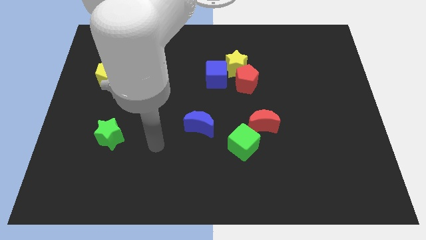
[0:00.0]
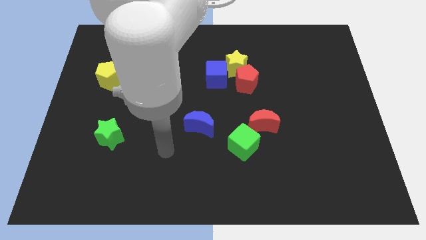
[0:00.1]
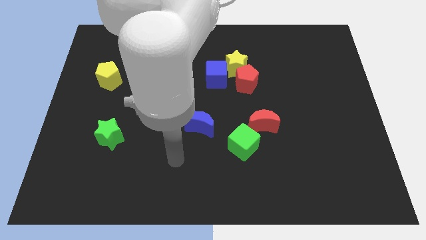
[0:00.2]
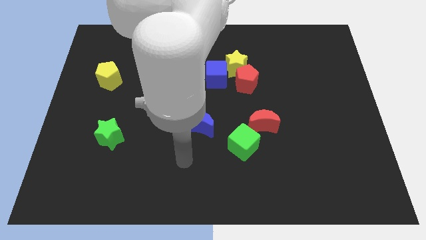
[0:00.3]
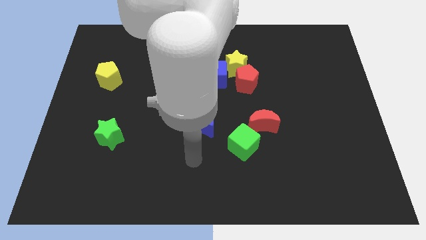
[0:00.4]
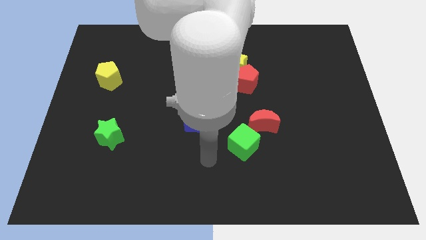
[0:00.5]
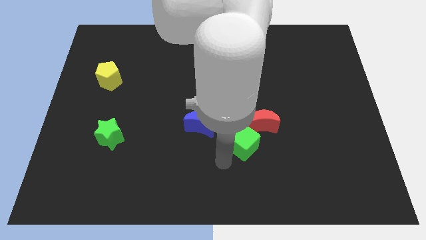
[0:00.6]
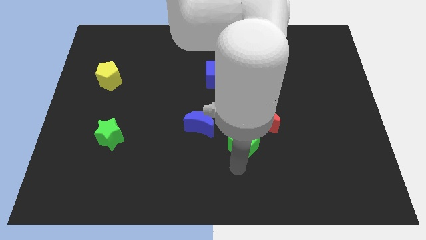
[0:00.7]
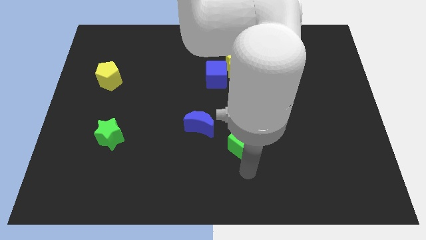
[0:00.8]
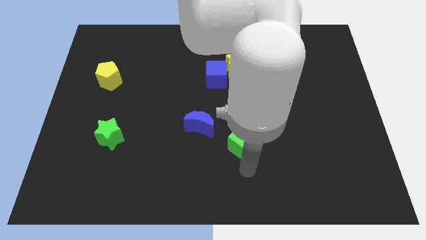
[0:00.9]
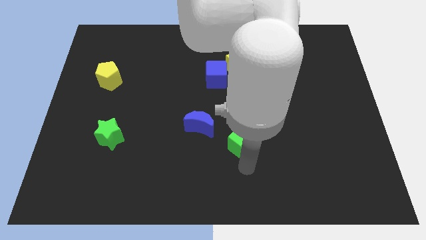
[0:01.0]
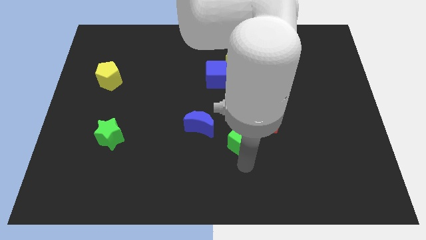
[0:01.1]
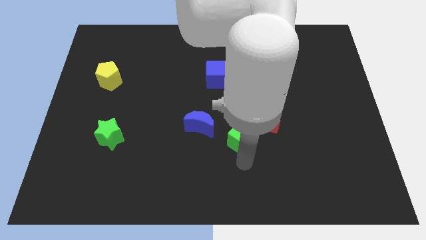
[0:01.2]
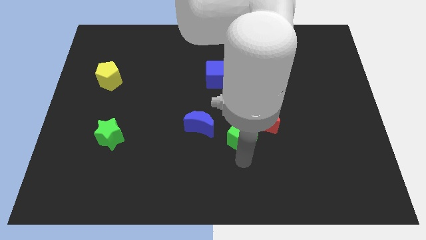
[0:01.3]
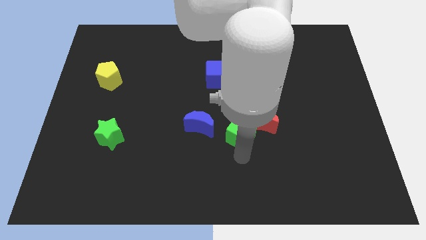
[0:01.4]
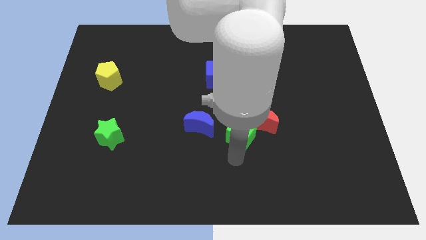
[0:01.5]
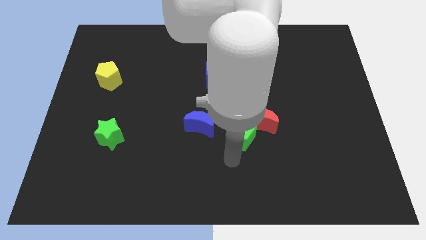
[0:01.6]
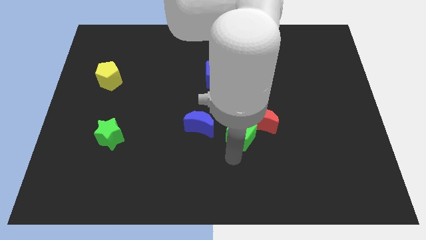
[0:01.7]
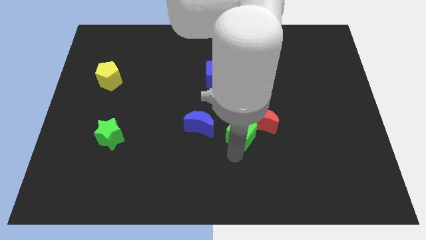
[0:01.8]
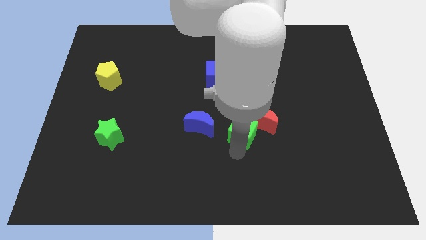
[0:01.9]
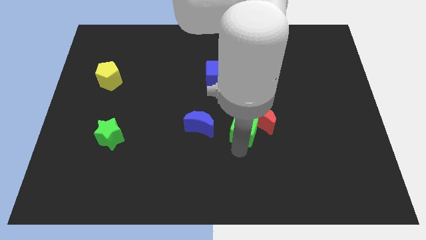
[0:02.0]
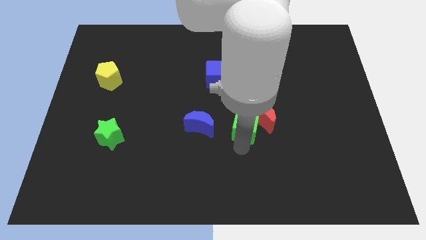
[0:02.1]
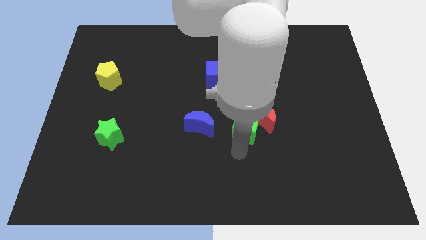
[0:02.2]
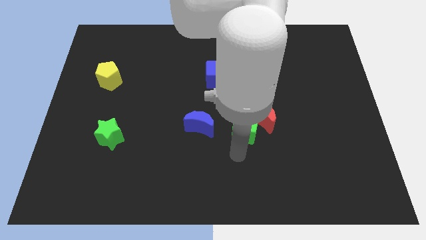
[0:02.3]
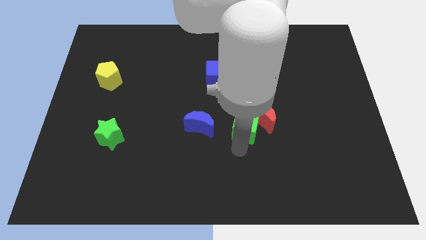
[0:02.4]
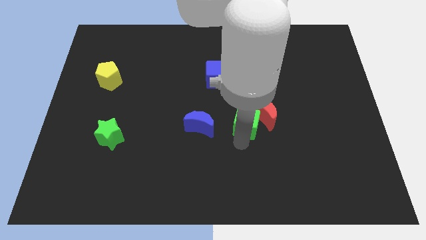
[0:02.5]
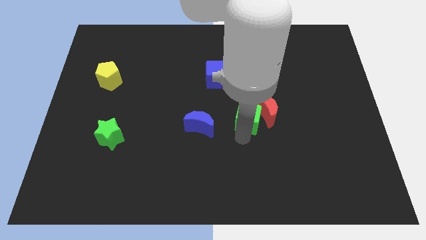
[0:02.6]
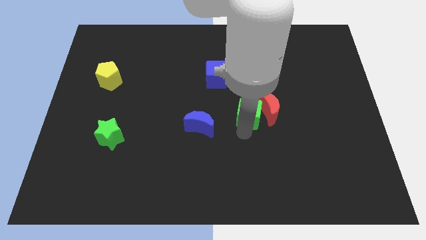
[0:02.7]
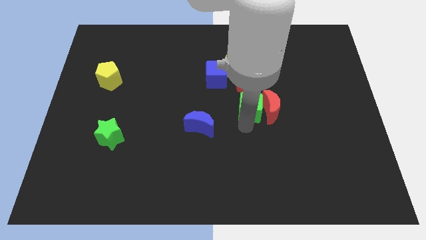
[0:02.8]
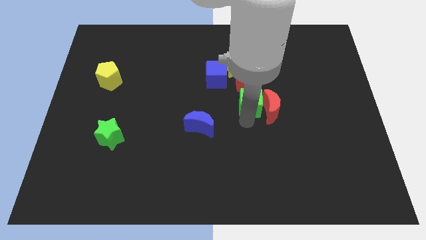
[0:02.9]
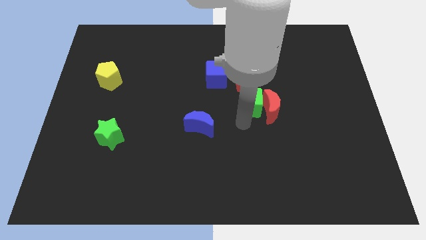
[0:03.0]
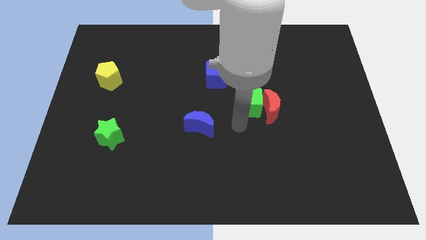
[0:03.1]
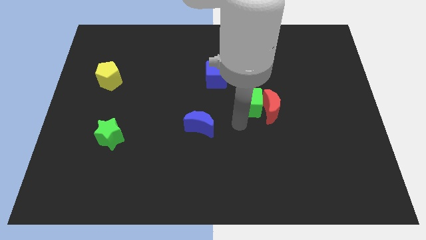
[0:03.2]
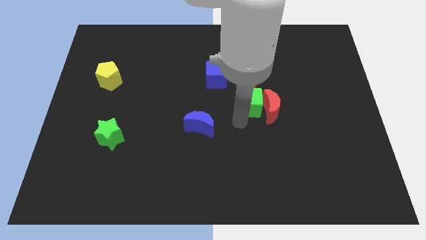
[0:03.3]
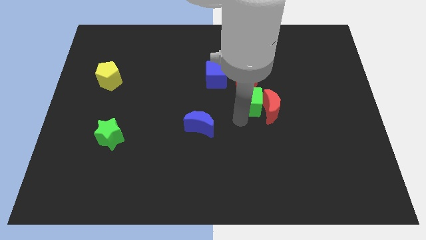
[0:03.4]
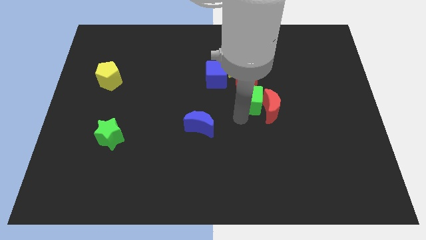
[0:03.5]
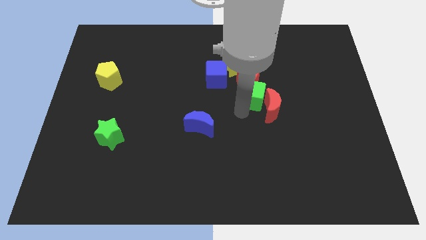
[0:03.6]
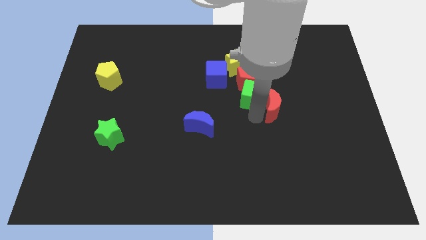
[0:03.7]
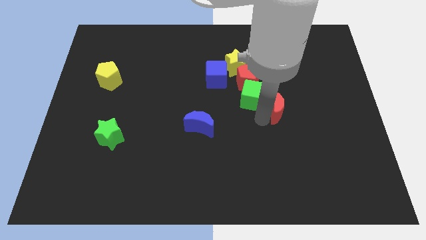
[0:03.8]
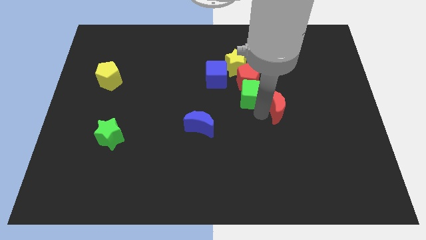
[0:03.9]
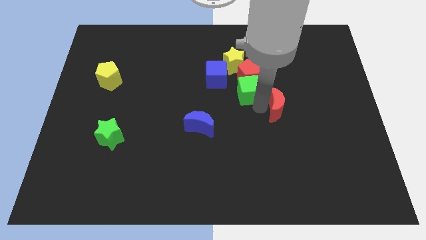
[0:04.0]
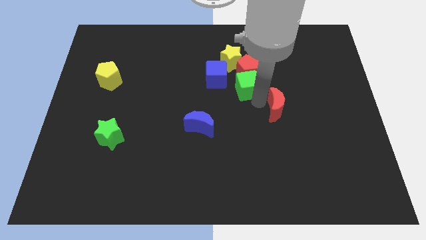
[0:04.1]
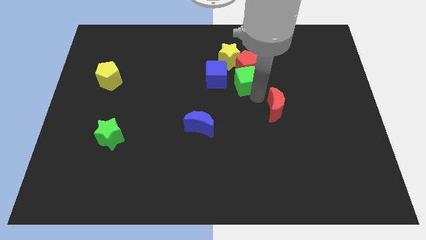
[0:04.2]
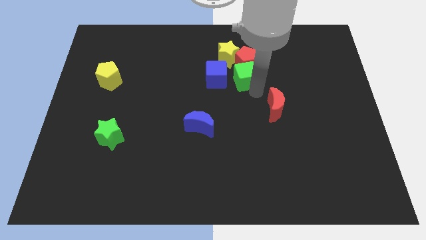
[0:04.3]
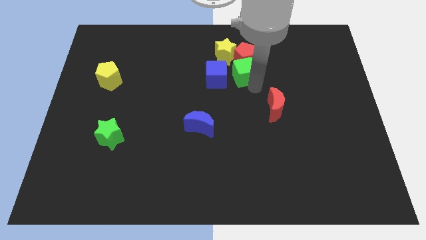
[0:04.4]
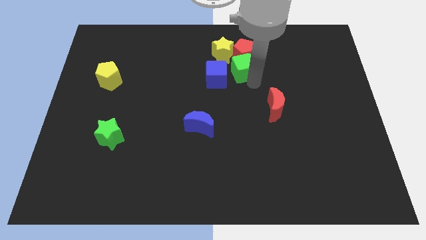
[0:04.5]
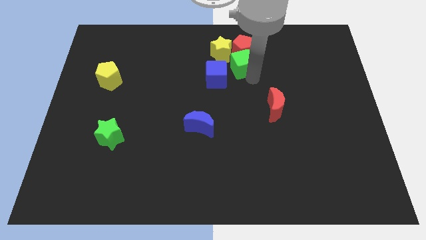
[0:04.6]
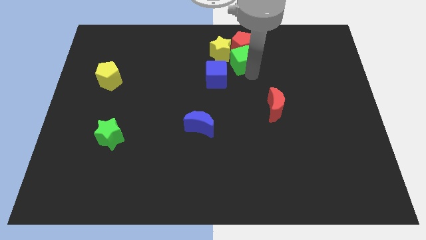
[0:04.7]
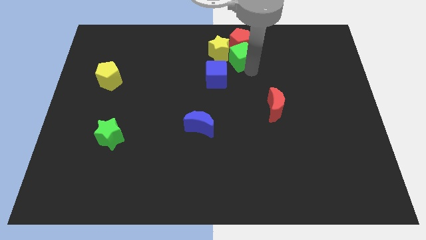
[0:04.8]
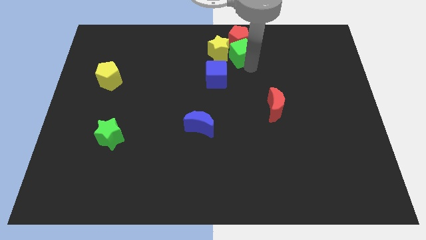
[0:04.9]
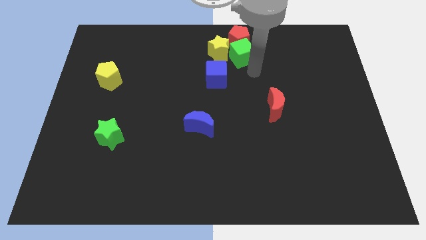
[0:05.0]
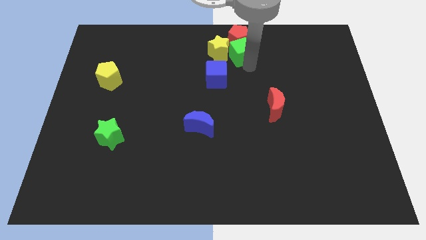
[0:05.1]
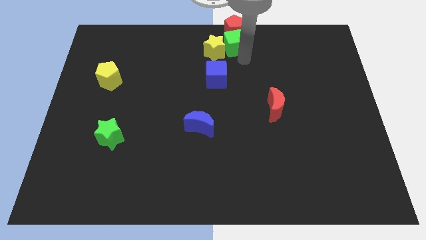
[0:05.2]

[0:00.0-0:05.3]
put the green cube to the top side

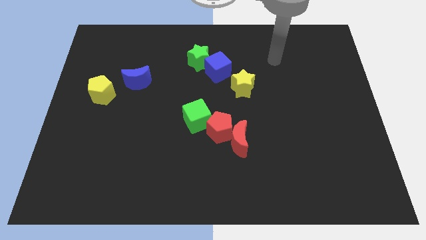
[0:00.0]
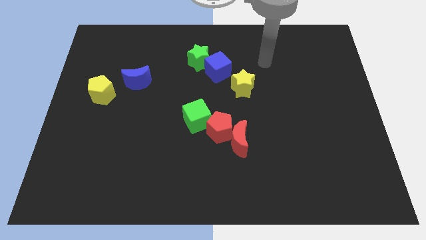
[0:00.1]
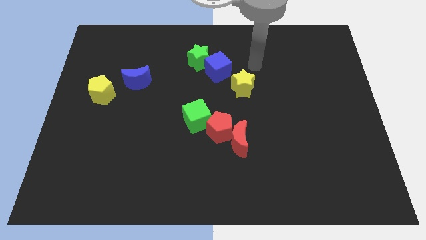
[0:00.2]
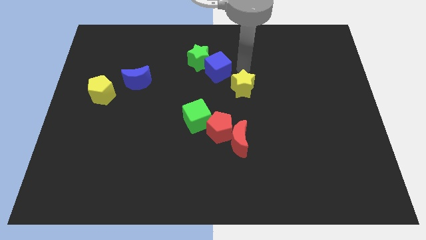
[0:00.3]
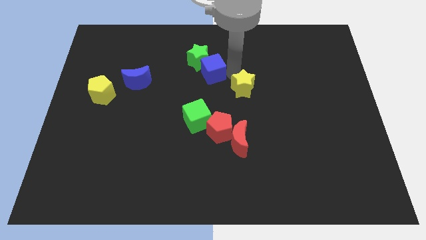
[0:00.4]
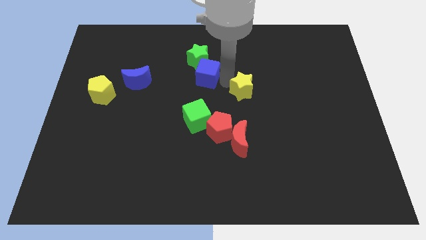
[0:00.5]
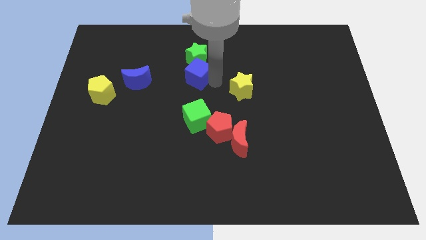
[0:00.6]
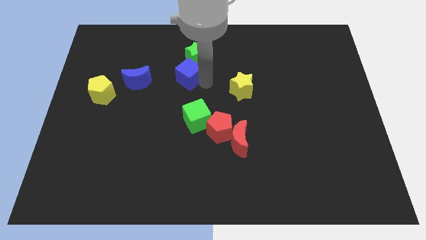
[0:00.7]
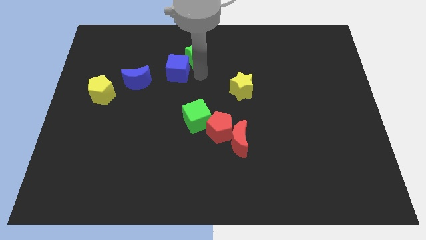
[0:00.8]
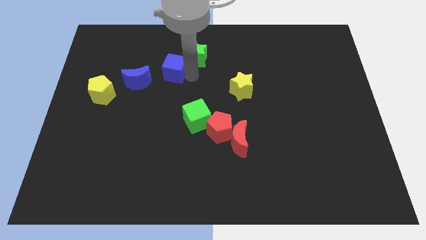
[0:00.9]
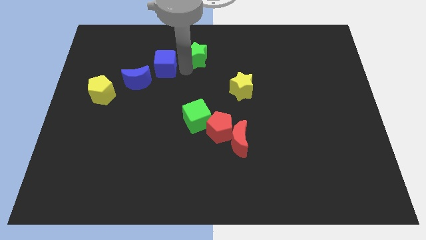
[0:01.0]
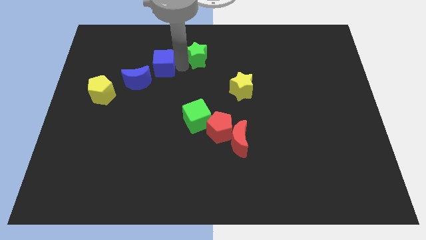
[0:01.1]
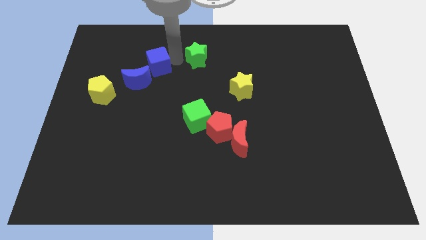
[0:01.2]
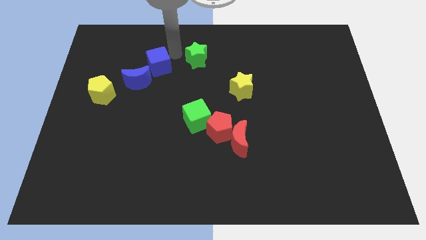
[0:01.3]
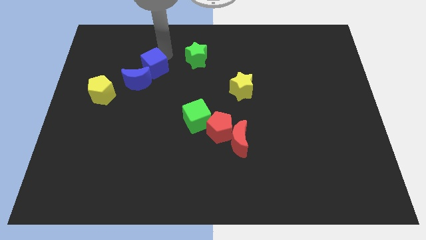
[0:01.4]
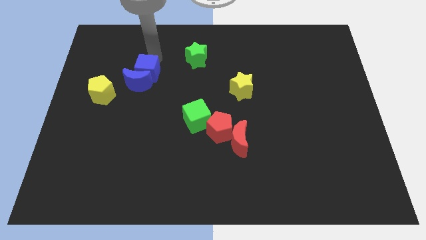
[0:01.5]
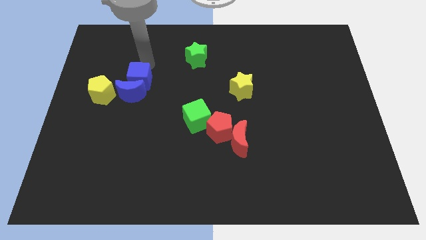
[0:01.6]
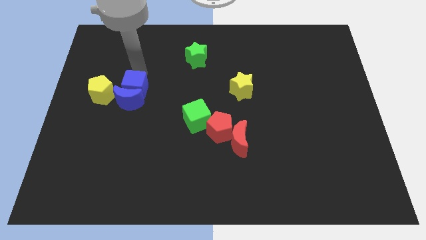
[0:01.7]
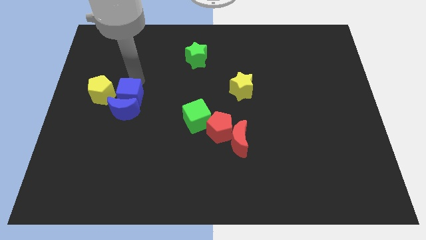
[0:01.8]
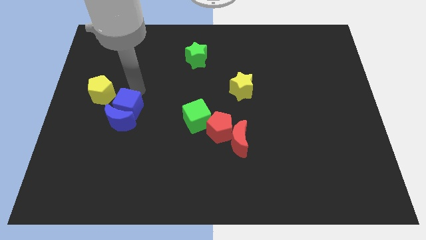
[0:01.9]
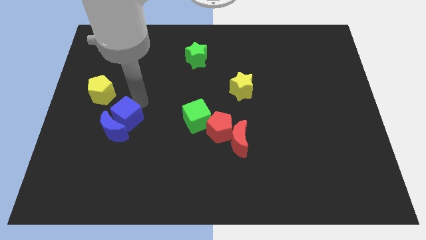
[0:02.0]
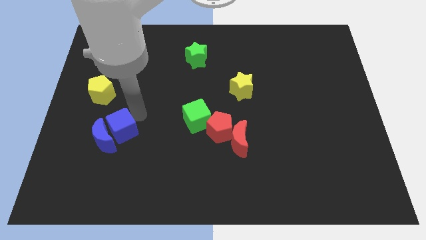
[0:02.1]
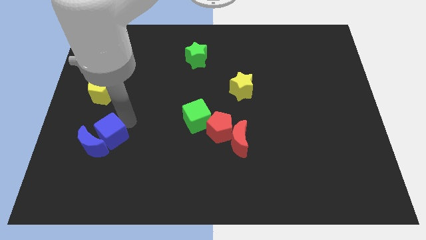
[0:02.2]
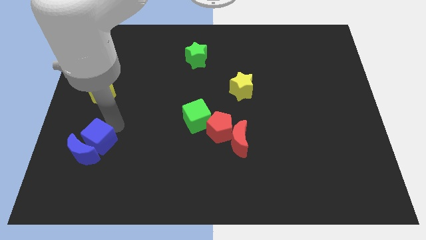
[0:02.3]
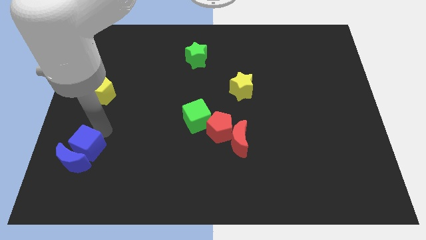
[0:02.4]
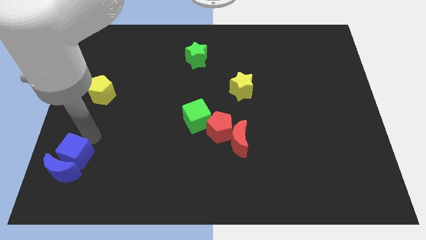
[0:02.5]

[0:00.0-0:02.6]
push the blue moon to the bottom left

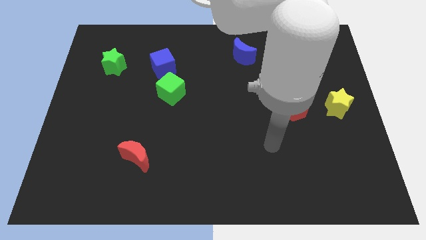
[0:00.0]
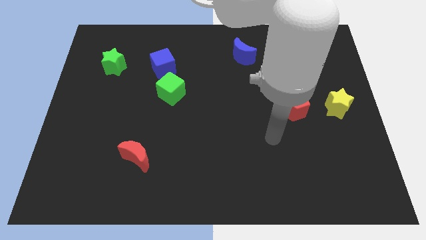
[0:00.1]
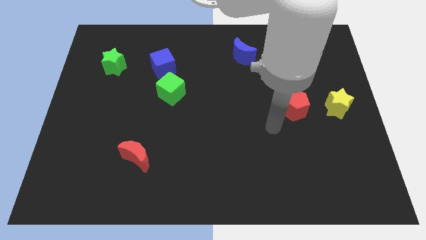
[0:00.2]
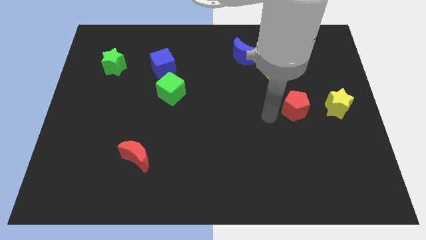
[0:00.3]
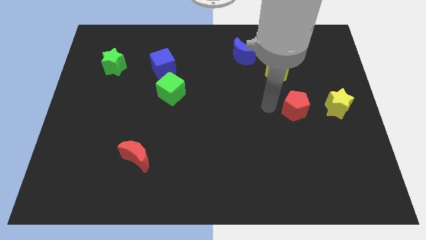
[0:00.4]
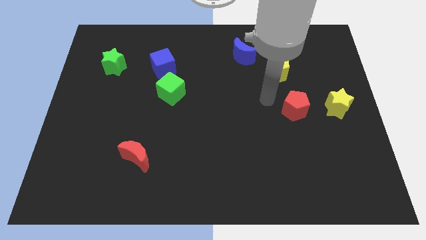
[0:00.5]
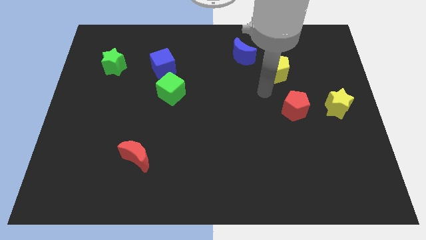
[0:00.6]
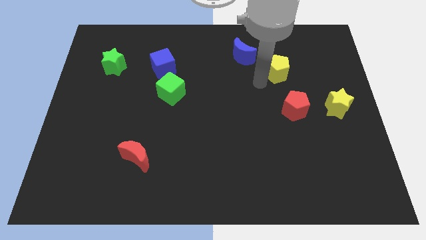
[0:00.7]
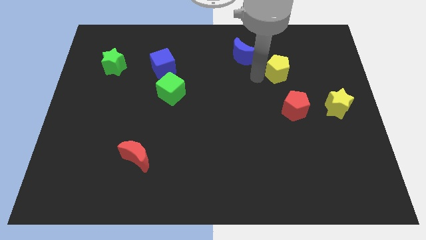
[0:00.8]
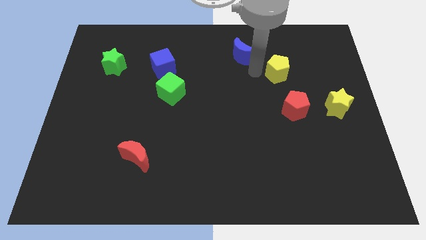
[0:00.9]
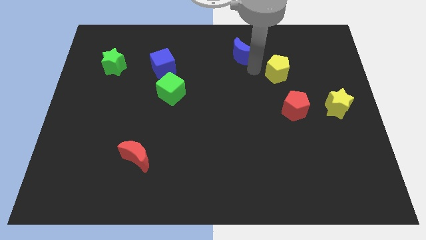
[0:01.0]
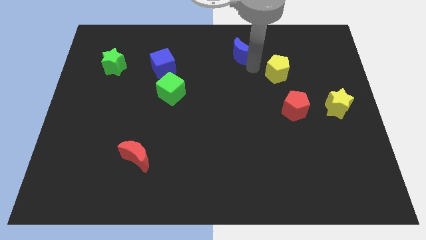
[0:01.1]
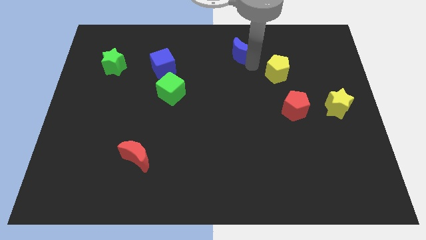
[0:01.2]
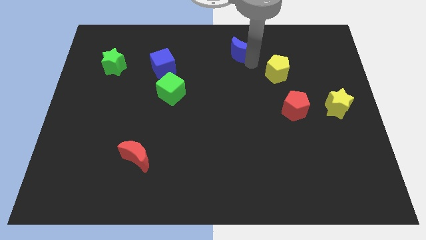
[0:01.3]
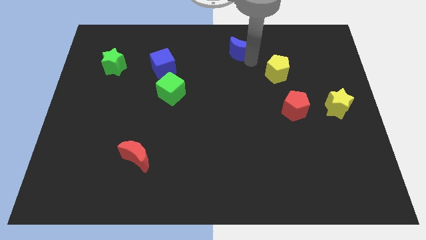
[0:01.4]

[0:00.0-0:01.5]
move the blue moon to the towards your base
